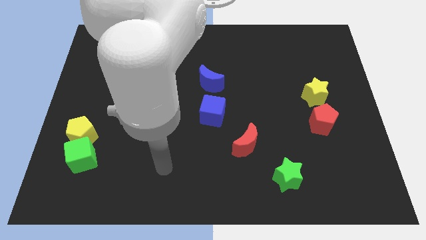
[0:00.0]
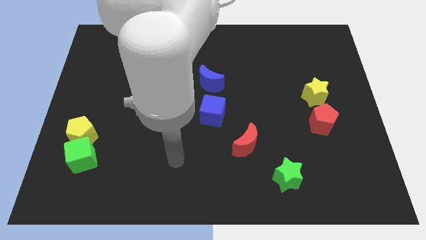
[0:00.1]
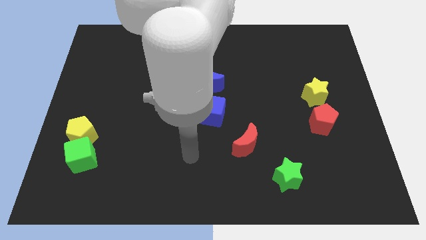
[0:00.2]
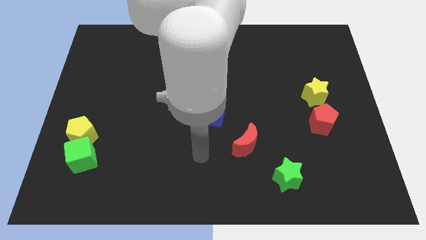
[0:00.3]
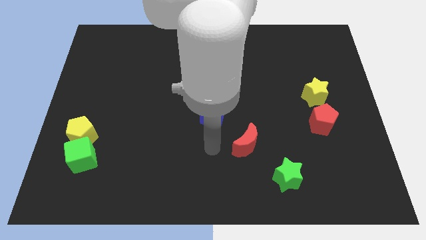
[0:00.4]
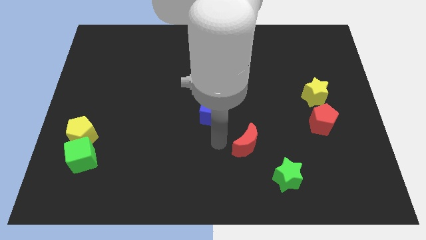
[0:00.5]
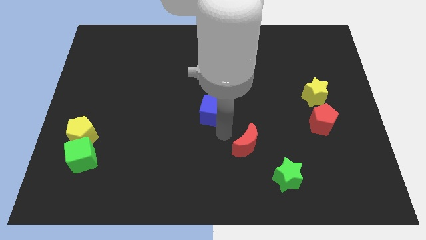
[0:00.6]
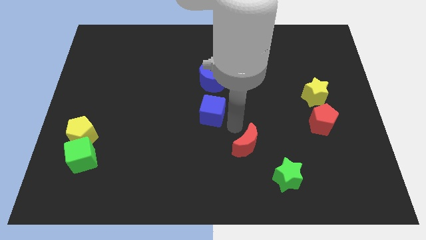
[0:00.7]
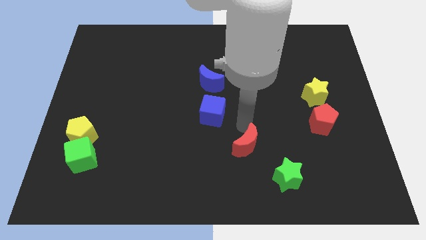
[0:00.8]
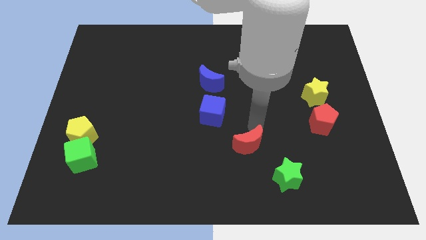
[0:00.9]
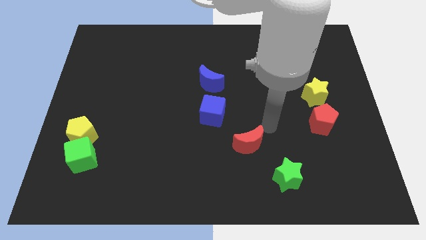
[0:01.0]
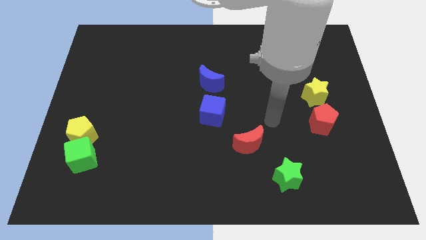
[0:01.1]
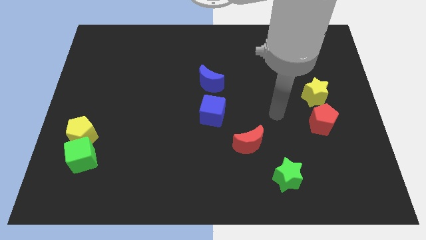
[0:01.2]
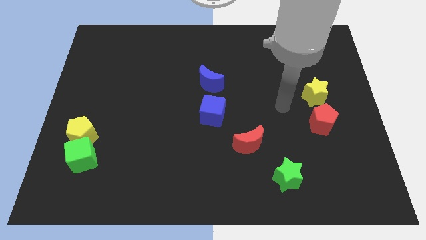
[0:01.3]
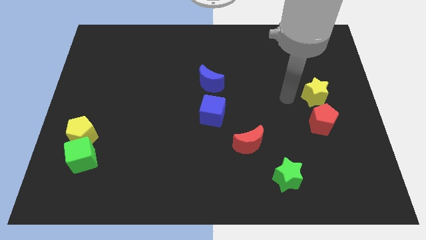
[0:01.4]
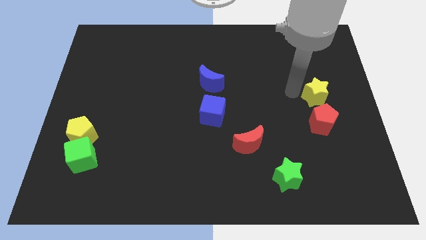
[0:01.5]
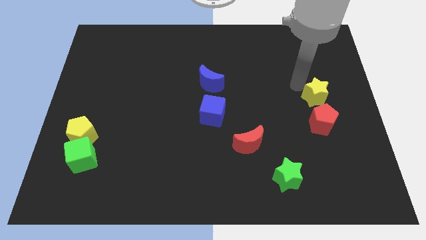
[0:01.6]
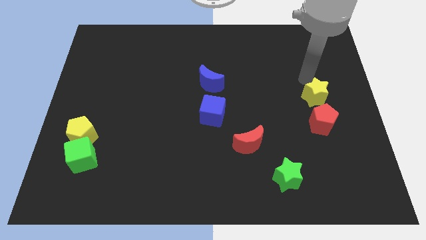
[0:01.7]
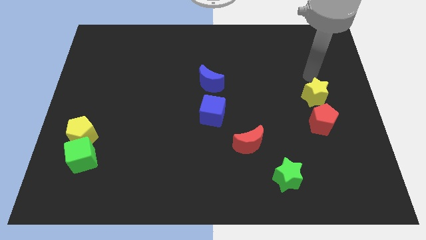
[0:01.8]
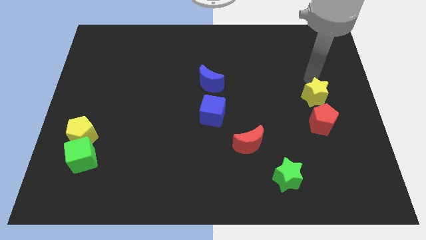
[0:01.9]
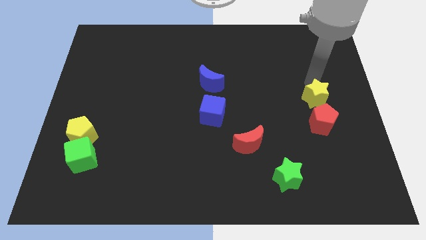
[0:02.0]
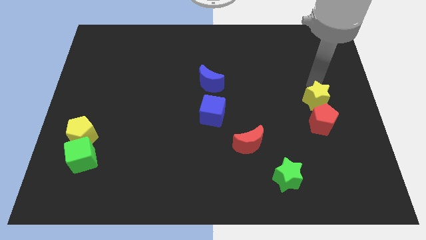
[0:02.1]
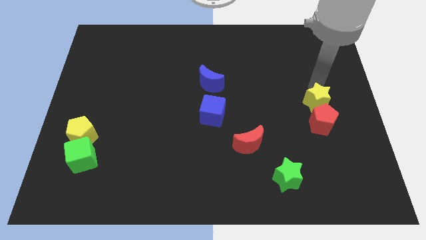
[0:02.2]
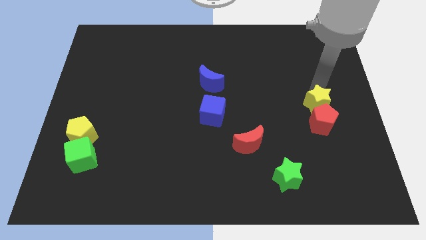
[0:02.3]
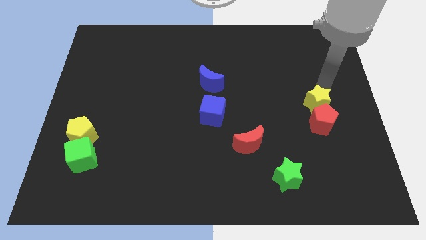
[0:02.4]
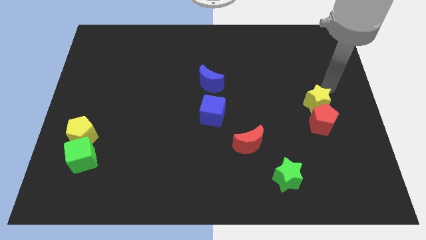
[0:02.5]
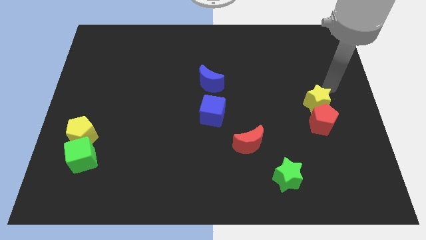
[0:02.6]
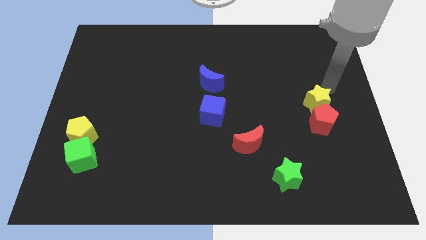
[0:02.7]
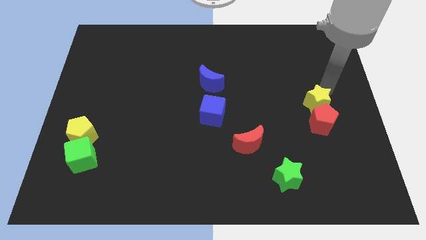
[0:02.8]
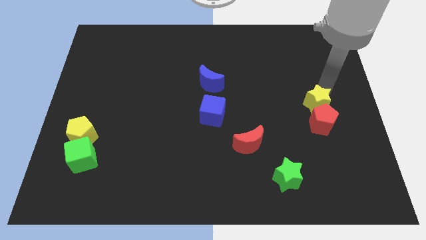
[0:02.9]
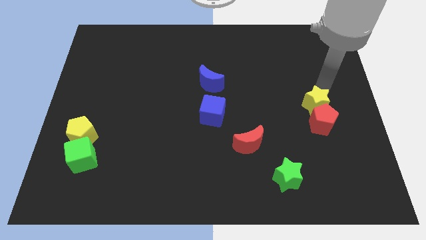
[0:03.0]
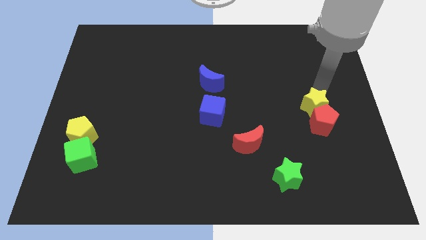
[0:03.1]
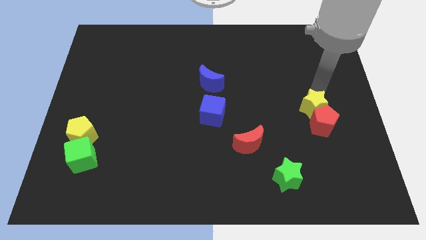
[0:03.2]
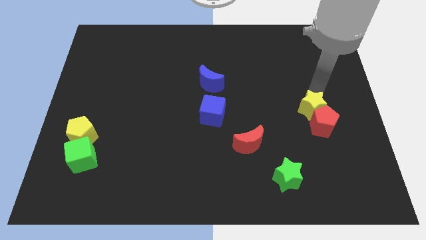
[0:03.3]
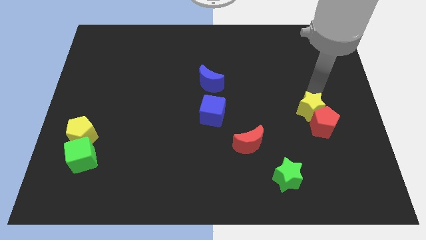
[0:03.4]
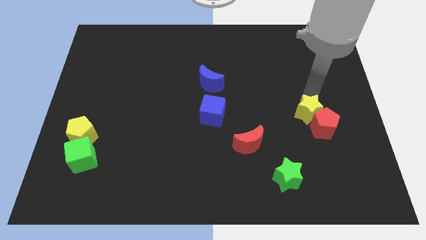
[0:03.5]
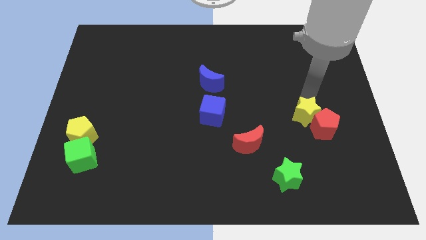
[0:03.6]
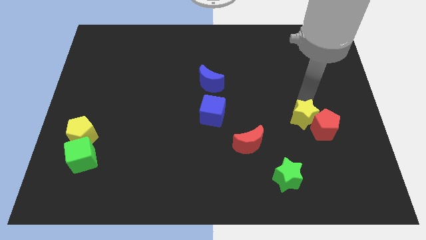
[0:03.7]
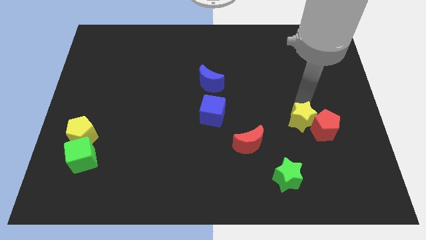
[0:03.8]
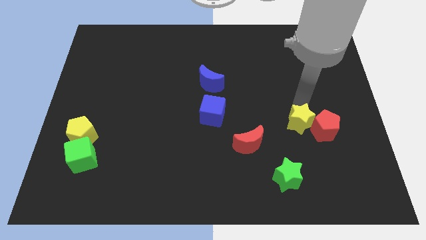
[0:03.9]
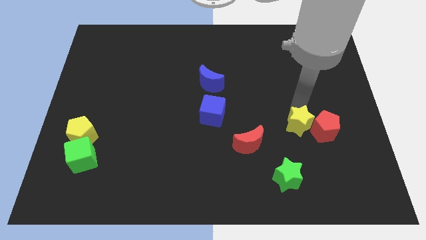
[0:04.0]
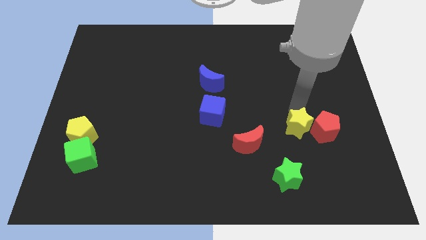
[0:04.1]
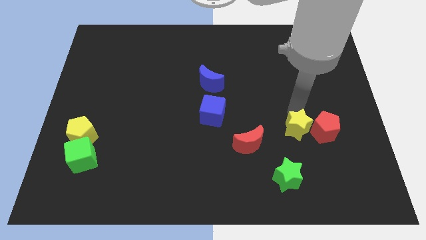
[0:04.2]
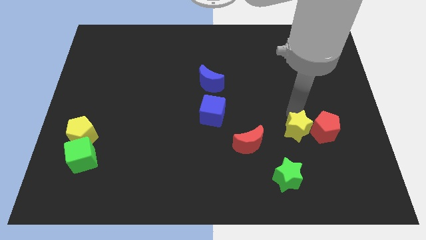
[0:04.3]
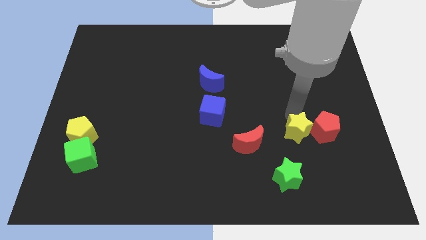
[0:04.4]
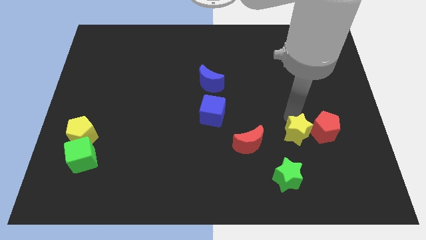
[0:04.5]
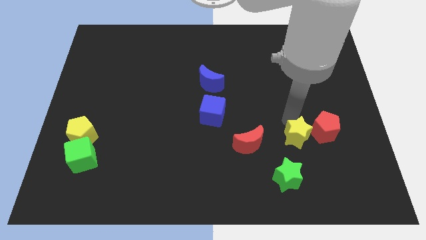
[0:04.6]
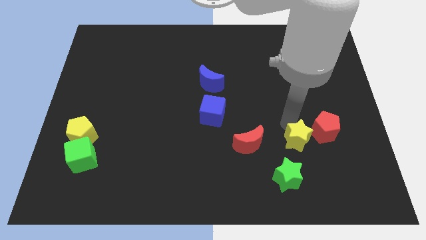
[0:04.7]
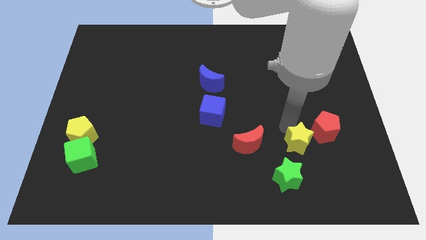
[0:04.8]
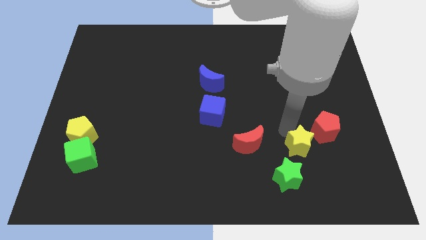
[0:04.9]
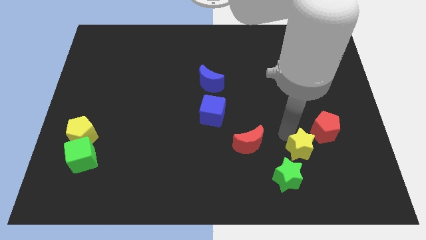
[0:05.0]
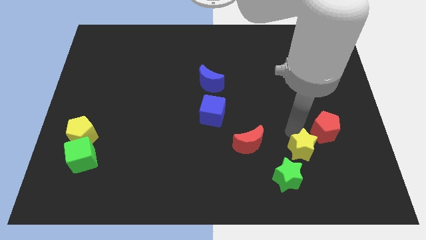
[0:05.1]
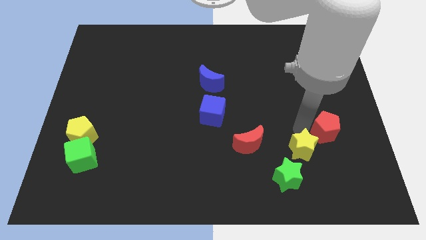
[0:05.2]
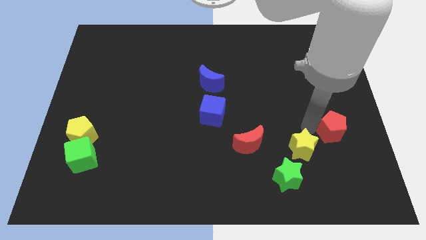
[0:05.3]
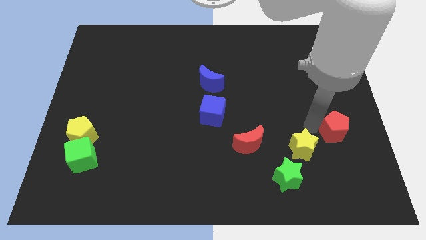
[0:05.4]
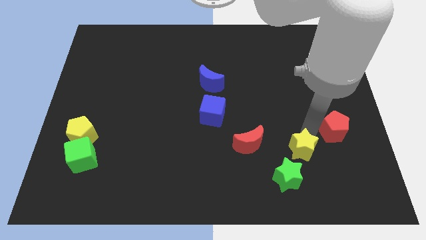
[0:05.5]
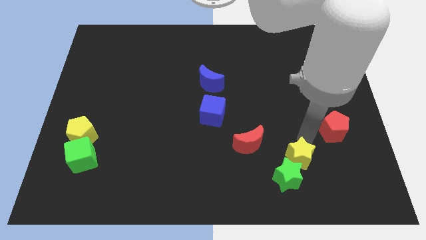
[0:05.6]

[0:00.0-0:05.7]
slide the yellow star next to the green star

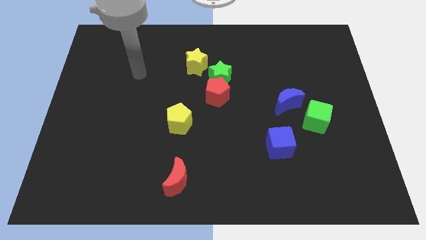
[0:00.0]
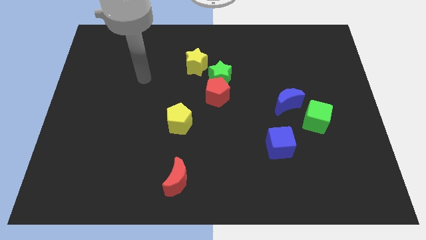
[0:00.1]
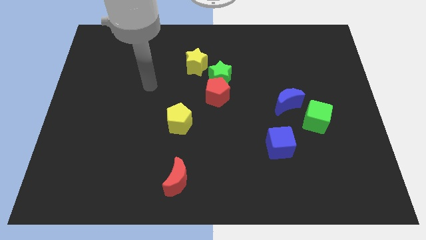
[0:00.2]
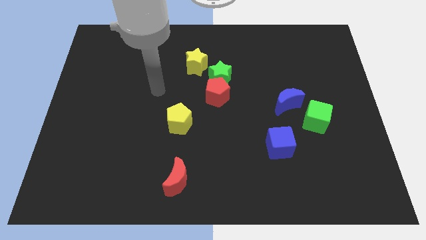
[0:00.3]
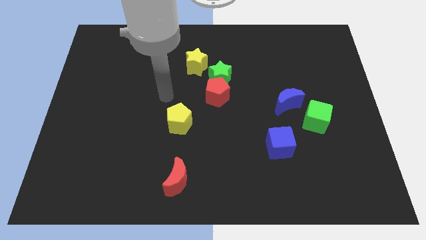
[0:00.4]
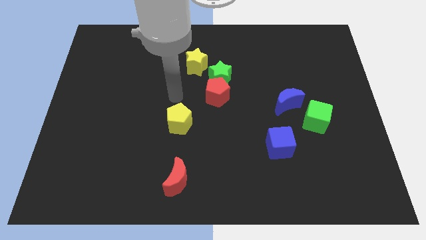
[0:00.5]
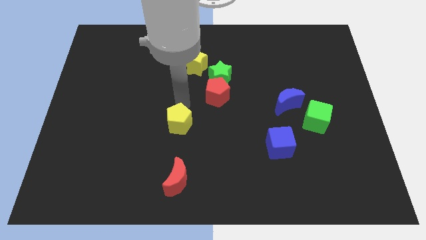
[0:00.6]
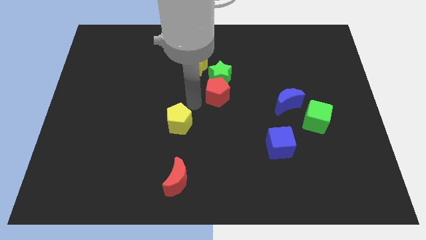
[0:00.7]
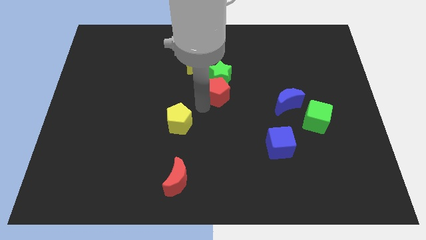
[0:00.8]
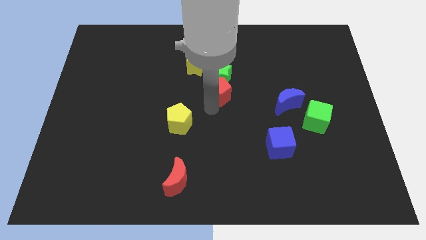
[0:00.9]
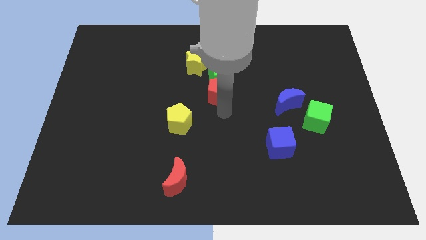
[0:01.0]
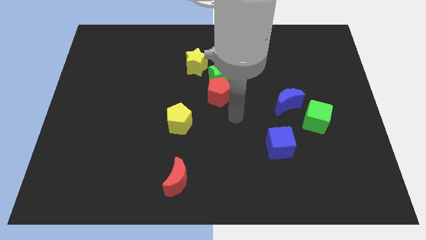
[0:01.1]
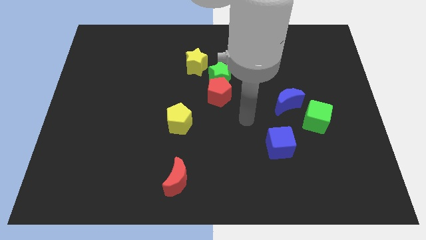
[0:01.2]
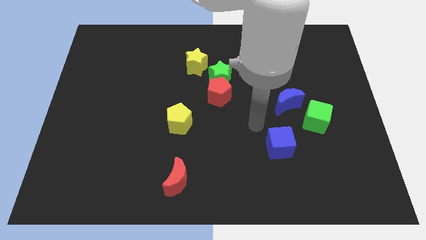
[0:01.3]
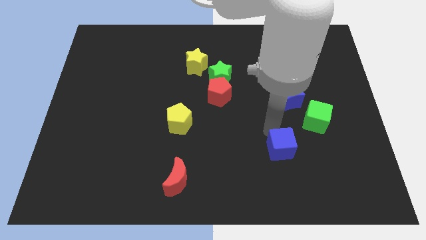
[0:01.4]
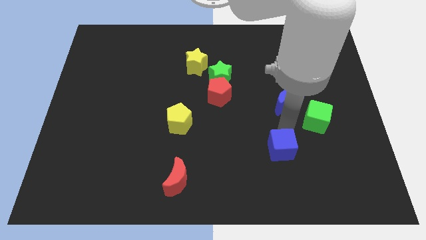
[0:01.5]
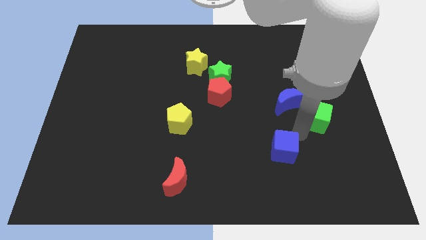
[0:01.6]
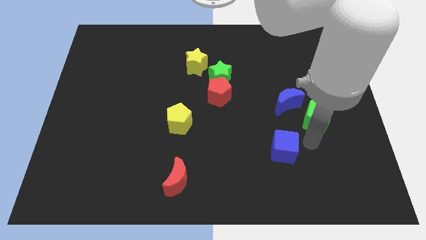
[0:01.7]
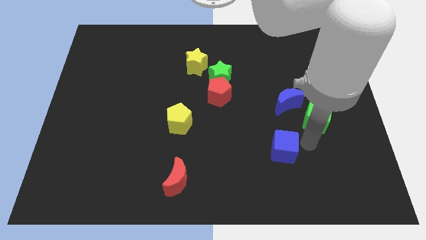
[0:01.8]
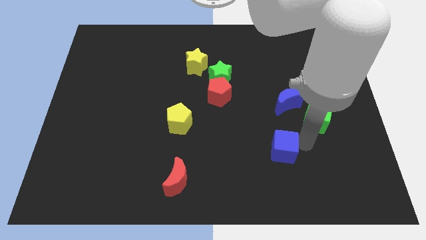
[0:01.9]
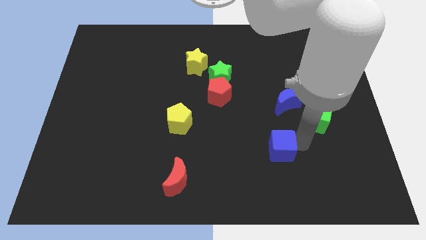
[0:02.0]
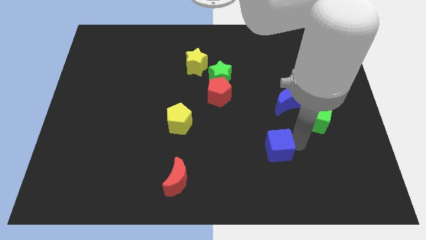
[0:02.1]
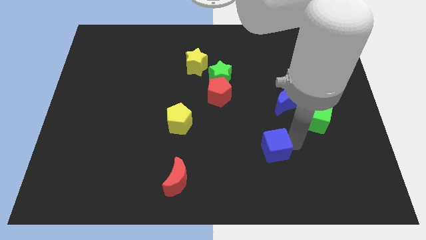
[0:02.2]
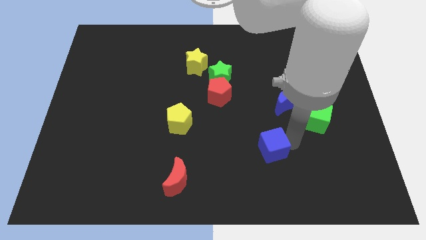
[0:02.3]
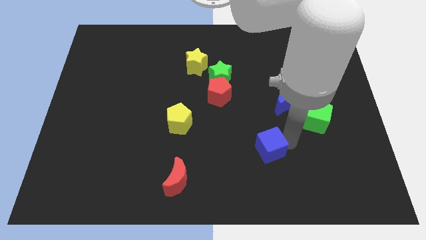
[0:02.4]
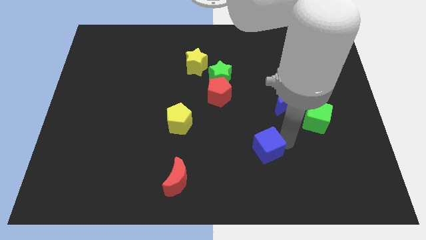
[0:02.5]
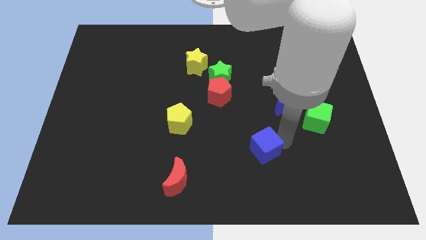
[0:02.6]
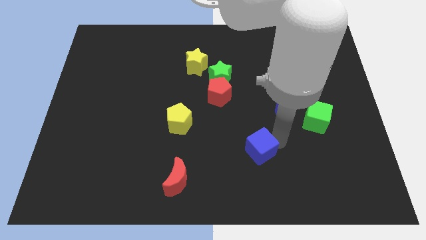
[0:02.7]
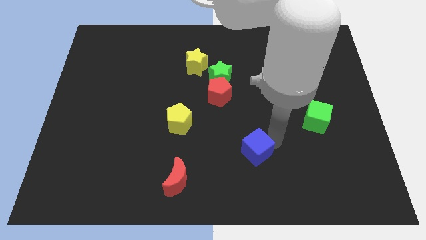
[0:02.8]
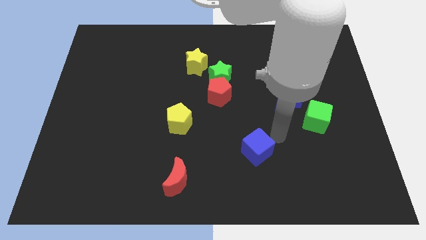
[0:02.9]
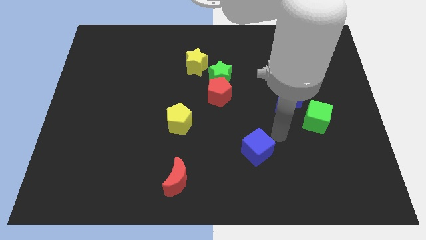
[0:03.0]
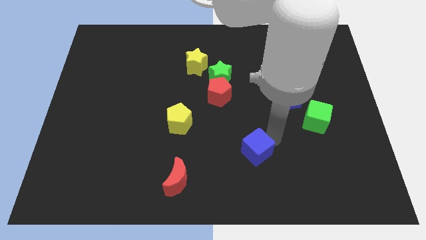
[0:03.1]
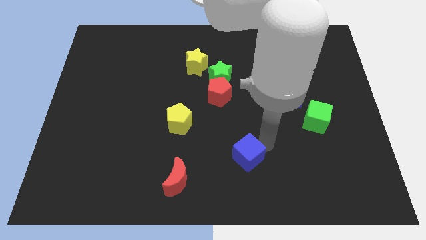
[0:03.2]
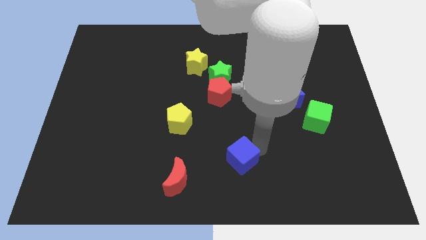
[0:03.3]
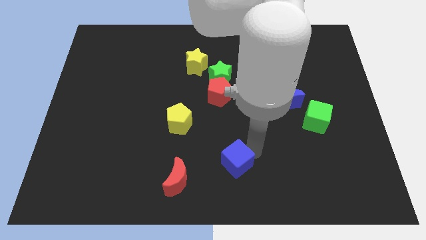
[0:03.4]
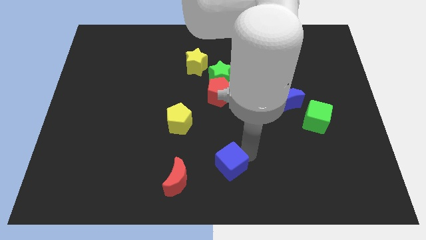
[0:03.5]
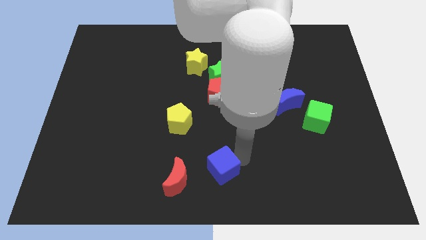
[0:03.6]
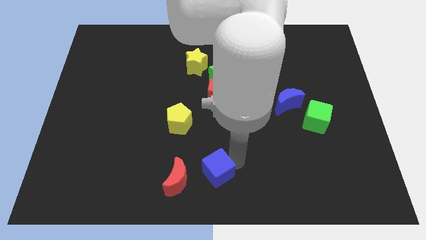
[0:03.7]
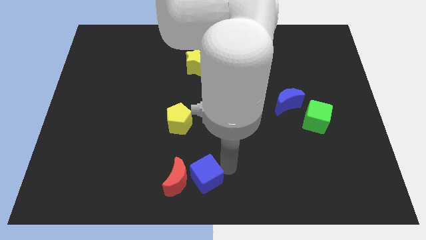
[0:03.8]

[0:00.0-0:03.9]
push the blue cube next to the red moon
